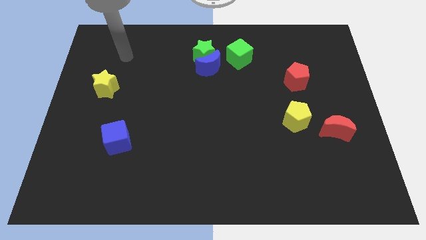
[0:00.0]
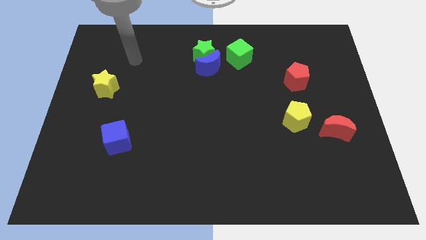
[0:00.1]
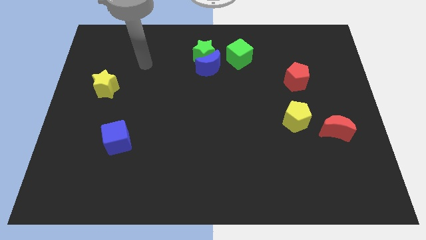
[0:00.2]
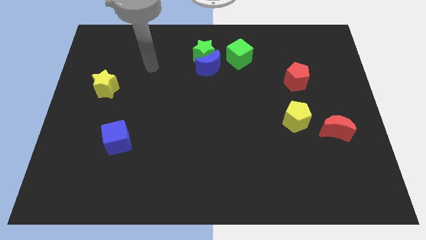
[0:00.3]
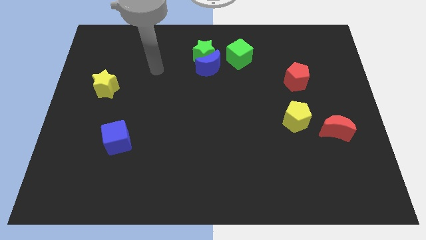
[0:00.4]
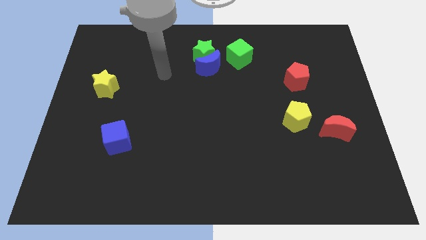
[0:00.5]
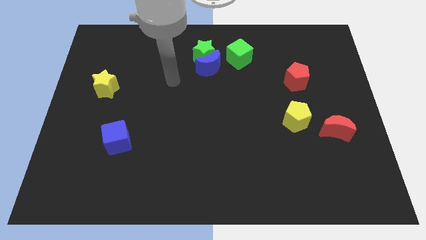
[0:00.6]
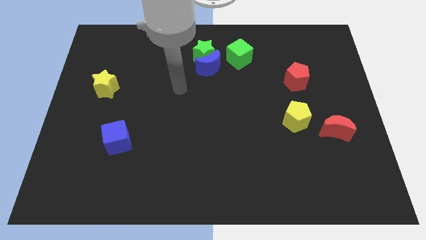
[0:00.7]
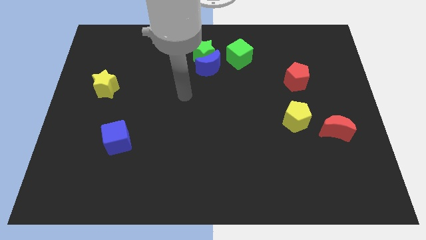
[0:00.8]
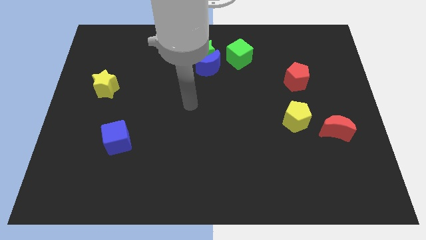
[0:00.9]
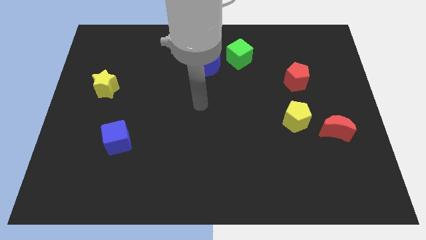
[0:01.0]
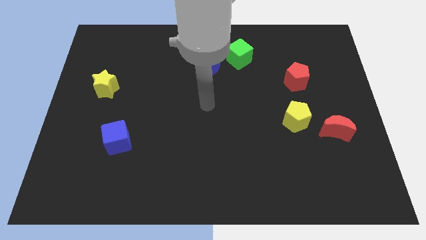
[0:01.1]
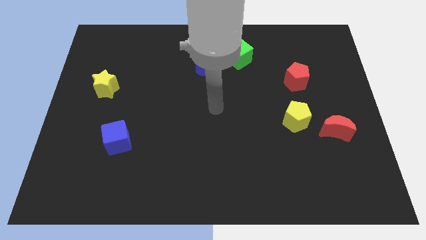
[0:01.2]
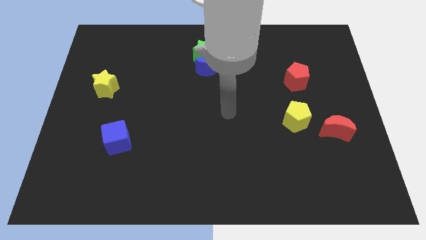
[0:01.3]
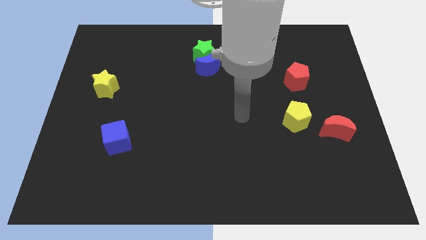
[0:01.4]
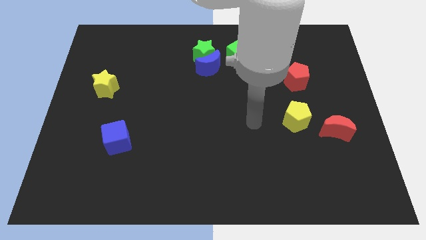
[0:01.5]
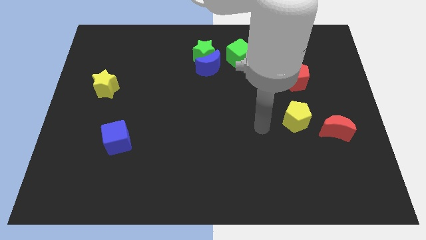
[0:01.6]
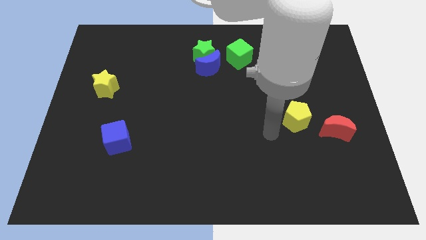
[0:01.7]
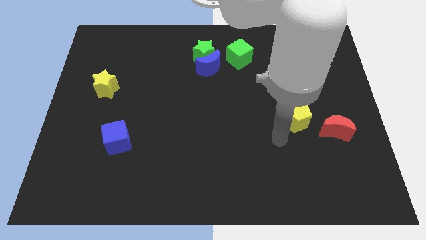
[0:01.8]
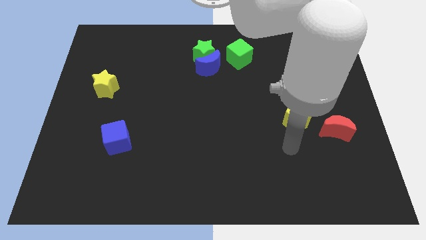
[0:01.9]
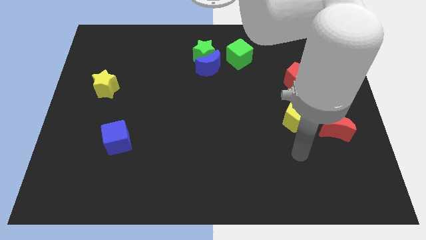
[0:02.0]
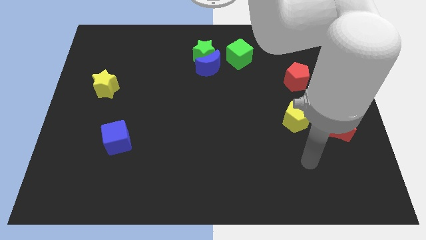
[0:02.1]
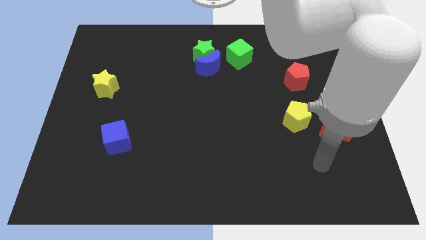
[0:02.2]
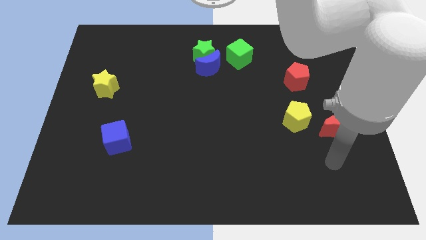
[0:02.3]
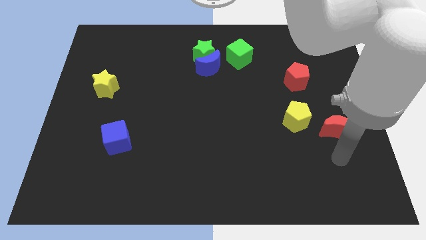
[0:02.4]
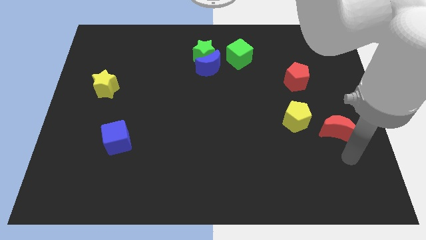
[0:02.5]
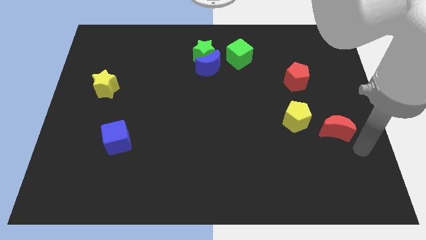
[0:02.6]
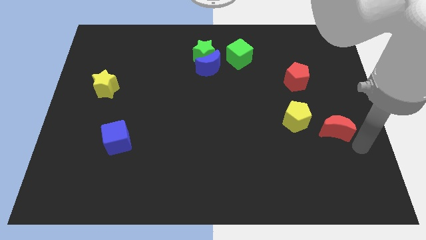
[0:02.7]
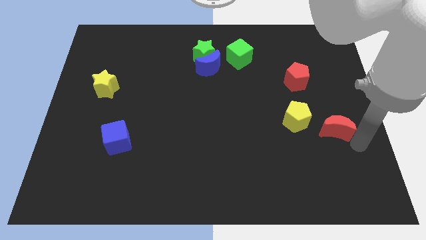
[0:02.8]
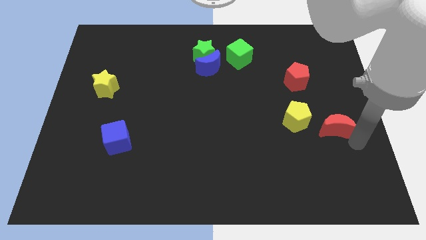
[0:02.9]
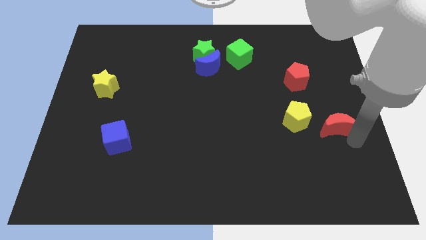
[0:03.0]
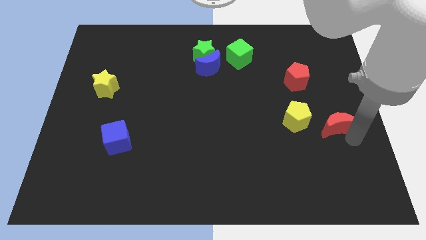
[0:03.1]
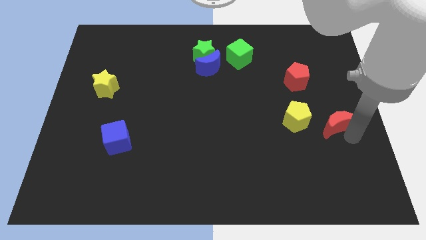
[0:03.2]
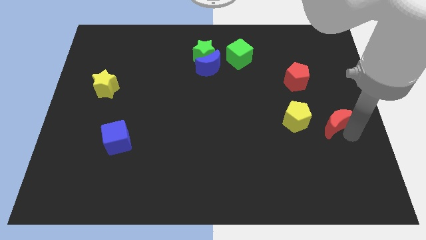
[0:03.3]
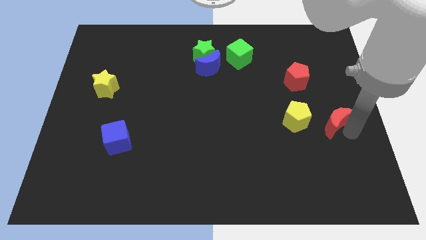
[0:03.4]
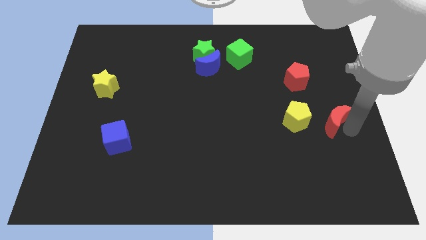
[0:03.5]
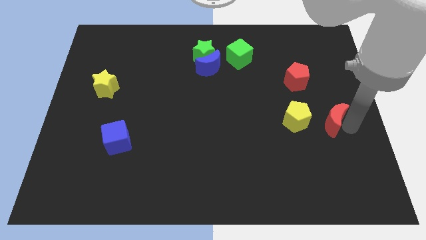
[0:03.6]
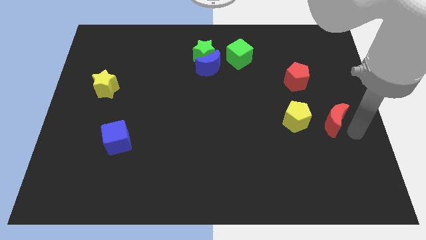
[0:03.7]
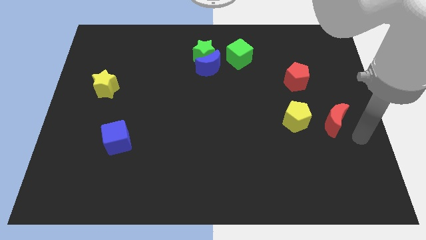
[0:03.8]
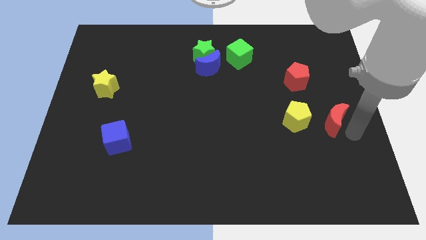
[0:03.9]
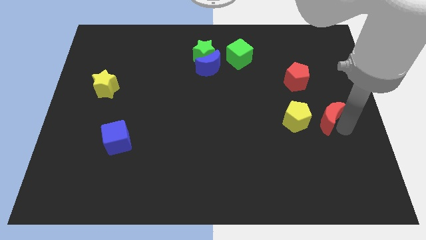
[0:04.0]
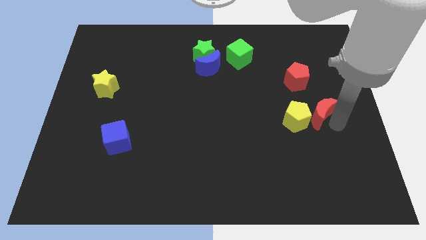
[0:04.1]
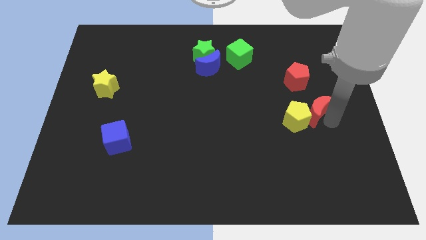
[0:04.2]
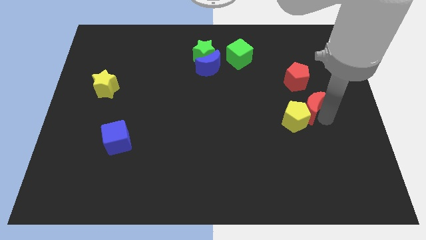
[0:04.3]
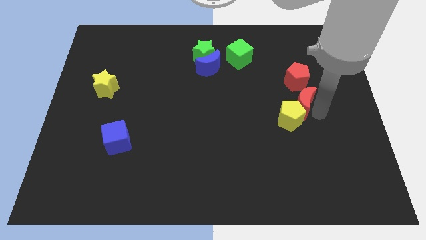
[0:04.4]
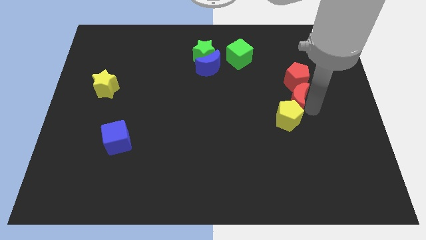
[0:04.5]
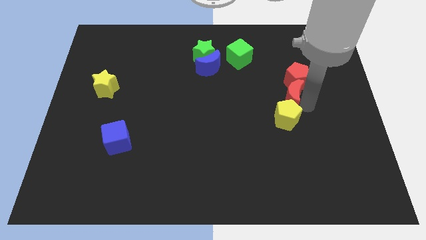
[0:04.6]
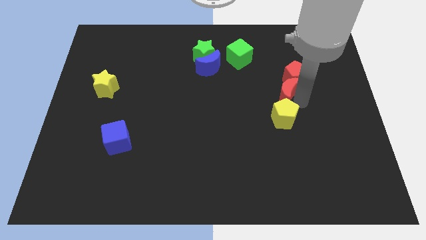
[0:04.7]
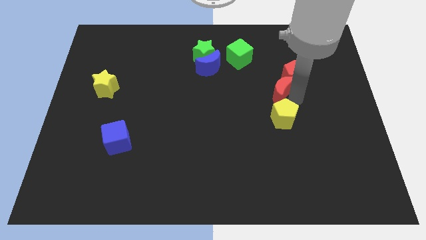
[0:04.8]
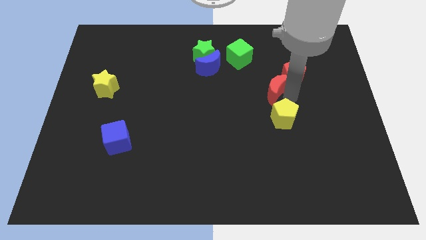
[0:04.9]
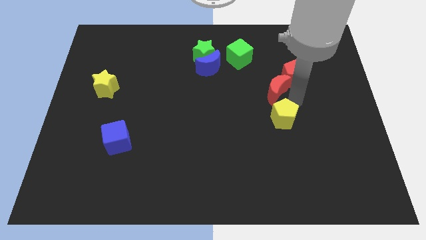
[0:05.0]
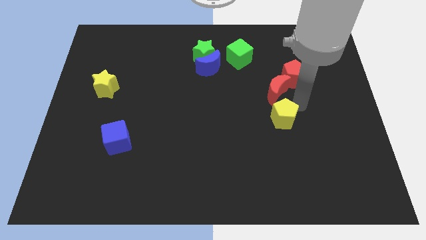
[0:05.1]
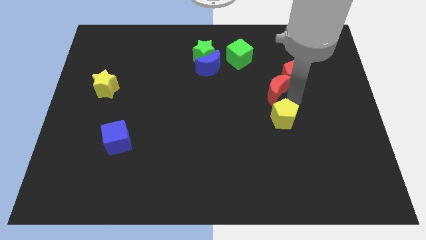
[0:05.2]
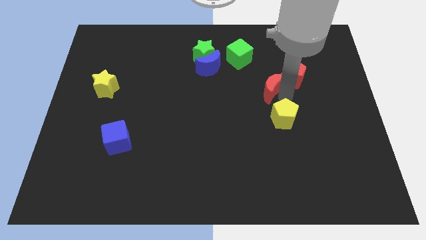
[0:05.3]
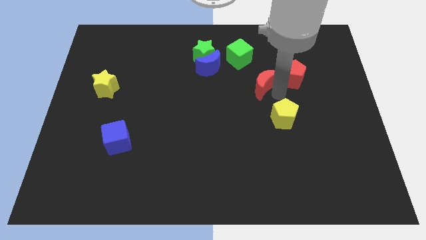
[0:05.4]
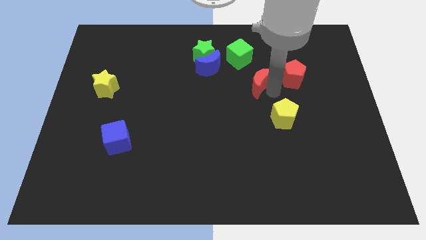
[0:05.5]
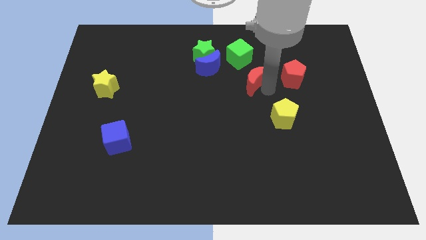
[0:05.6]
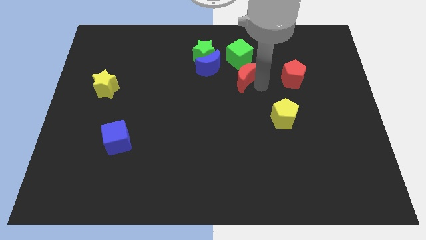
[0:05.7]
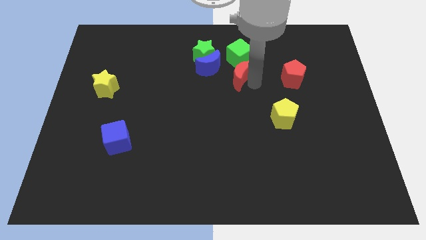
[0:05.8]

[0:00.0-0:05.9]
put the red moon diagonally down and to the right of the green star
